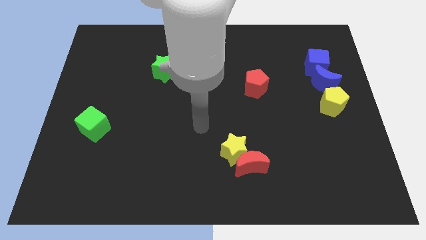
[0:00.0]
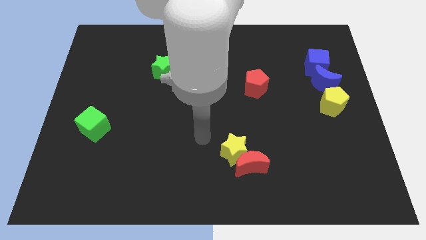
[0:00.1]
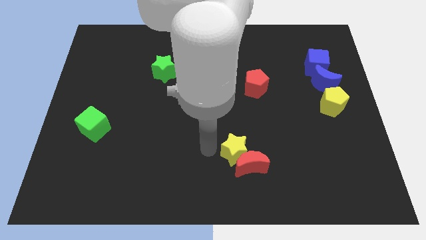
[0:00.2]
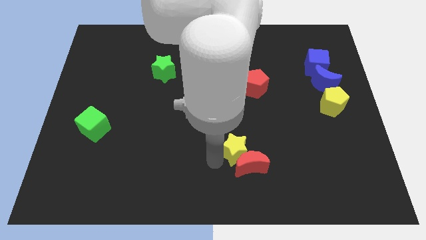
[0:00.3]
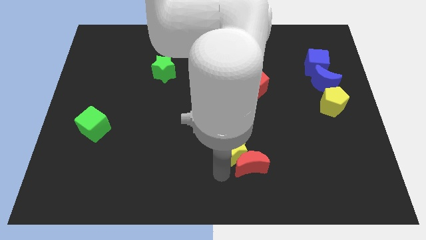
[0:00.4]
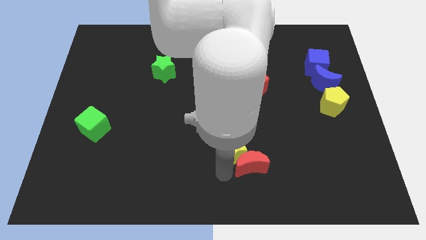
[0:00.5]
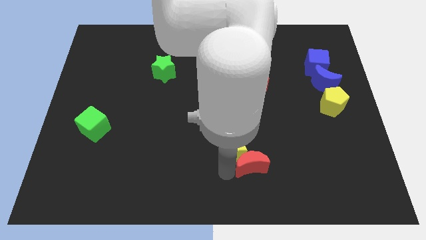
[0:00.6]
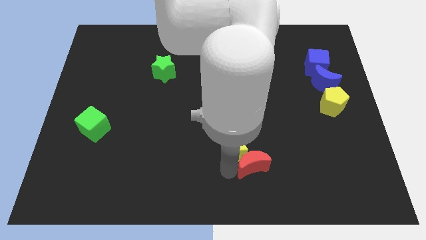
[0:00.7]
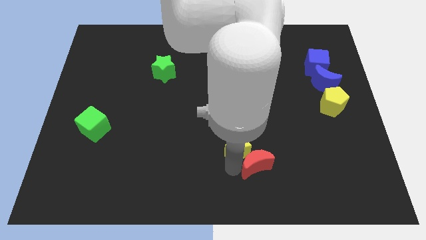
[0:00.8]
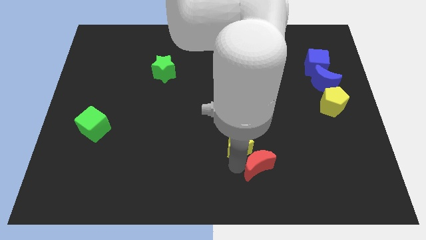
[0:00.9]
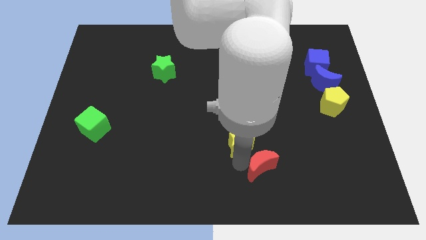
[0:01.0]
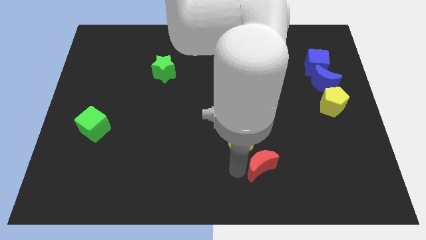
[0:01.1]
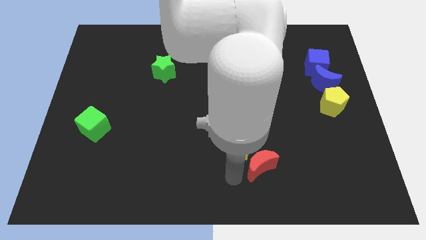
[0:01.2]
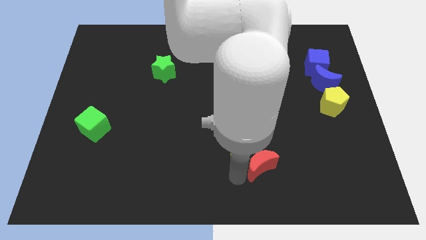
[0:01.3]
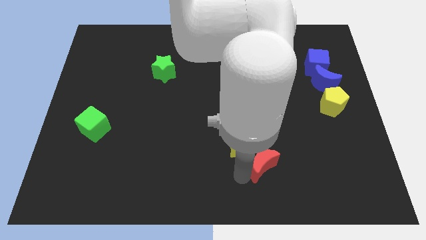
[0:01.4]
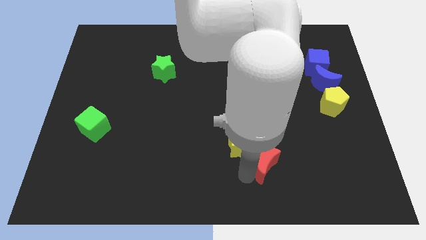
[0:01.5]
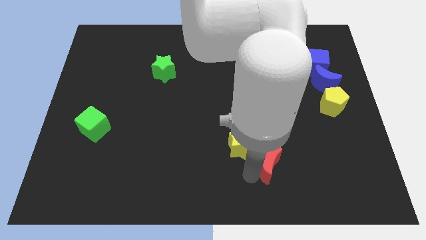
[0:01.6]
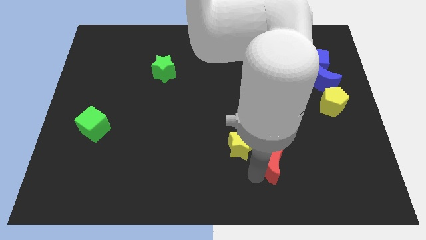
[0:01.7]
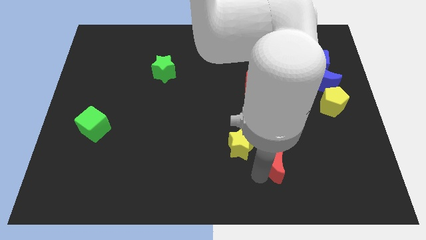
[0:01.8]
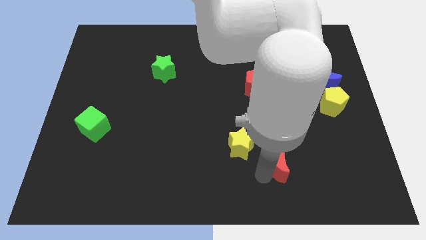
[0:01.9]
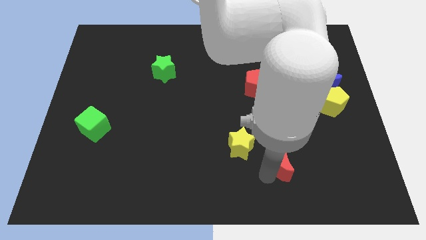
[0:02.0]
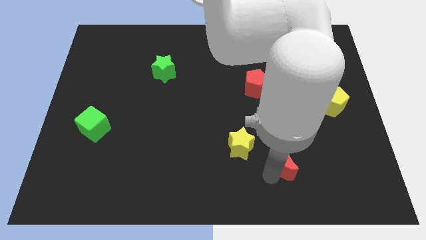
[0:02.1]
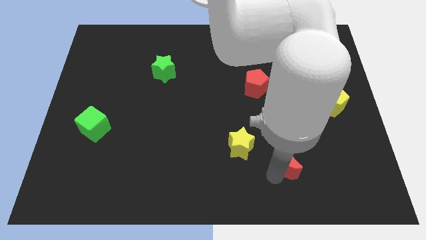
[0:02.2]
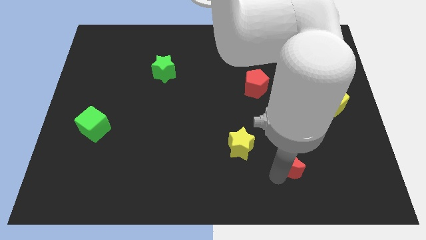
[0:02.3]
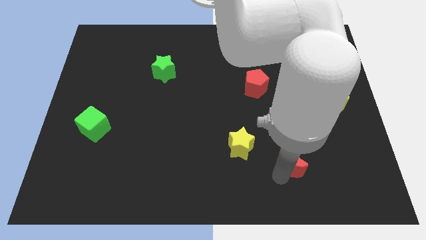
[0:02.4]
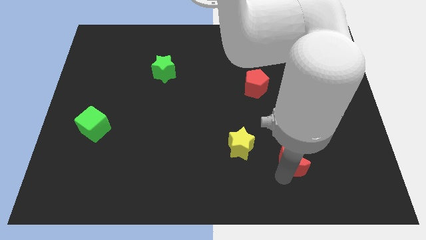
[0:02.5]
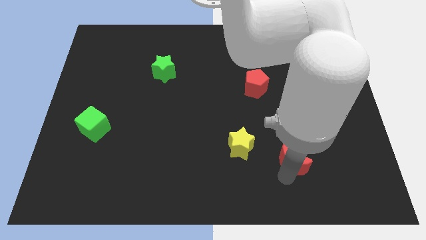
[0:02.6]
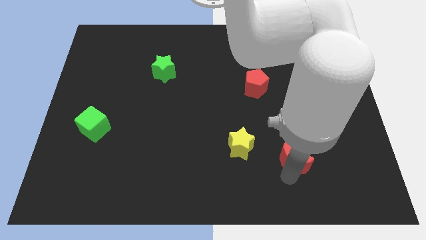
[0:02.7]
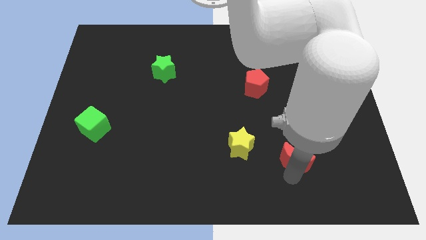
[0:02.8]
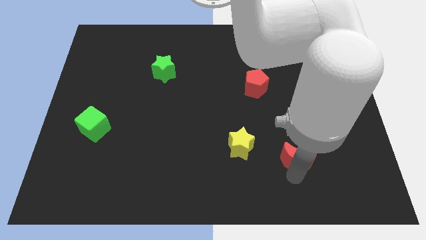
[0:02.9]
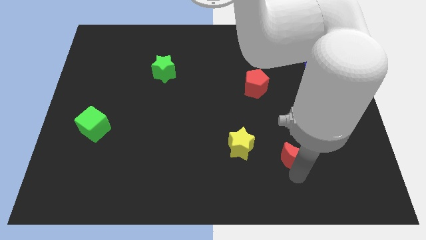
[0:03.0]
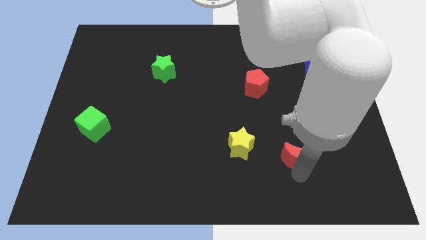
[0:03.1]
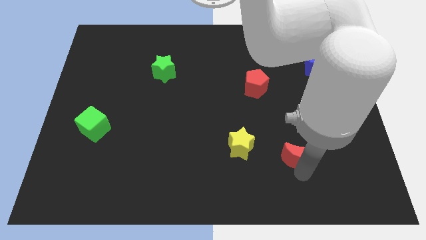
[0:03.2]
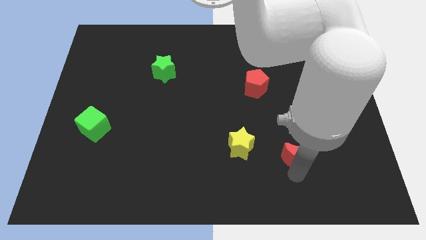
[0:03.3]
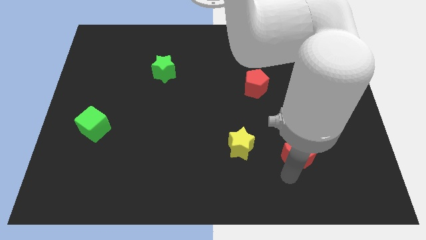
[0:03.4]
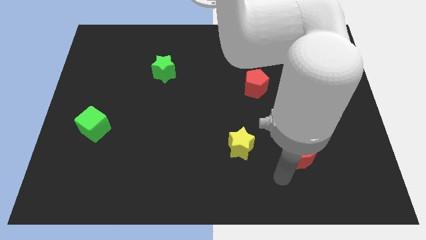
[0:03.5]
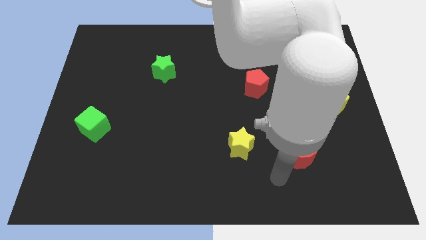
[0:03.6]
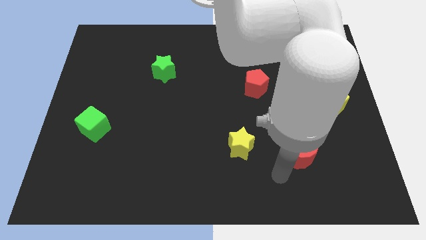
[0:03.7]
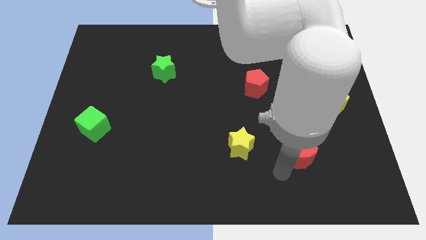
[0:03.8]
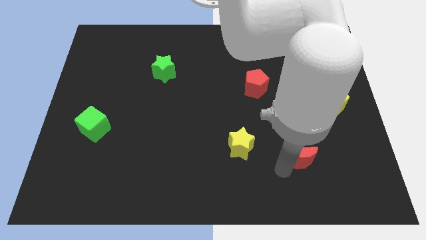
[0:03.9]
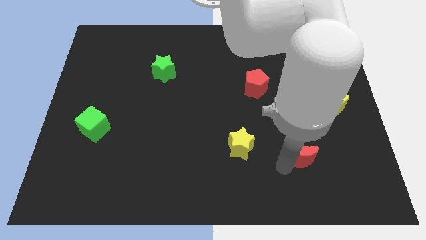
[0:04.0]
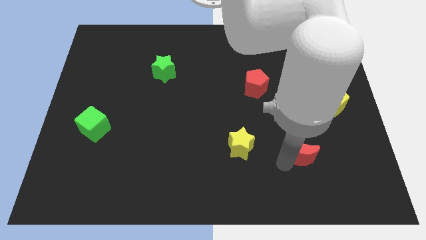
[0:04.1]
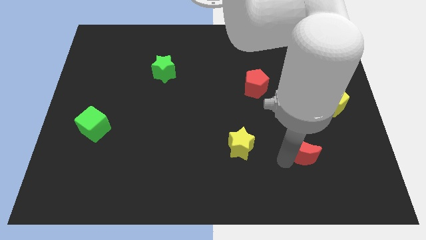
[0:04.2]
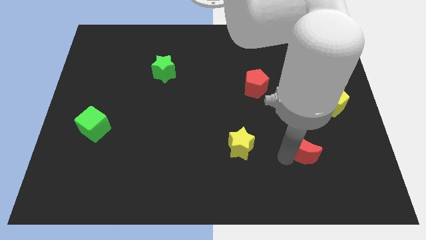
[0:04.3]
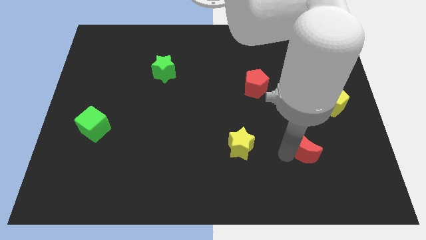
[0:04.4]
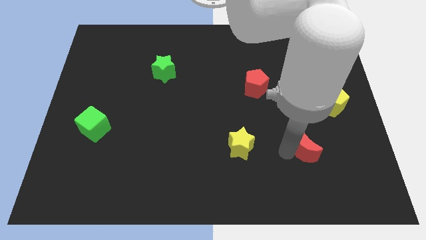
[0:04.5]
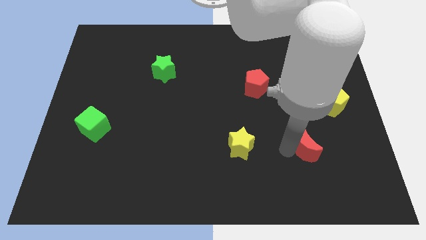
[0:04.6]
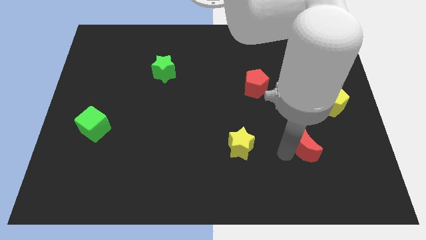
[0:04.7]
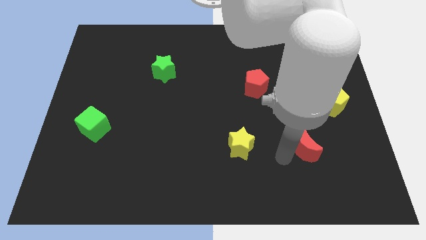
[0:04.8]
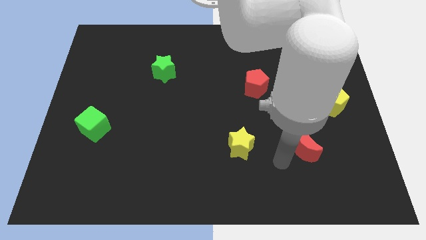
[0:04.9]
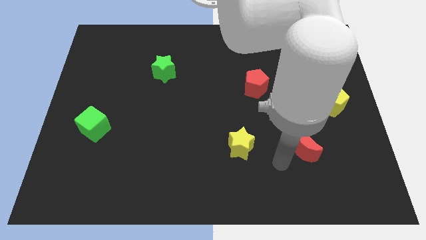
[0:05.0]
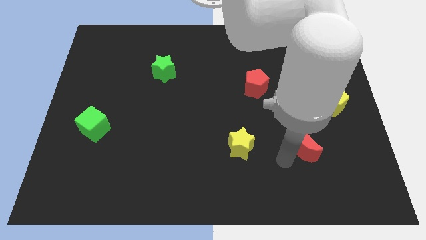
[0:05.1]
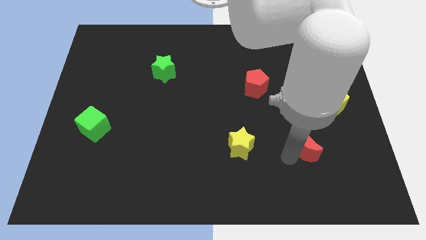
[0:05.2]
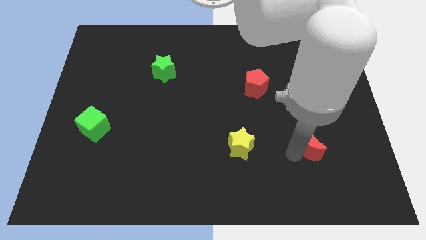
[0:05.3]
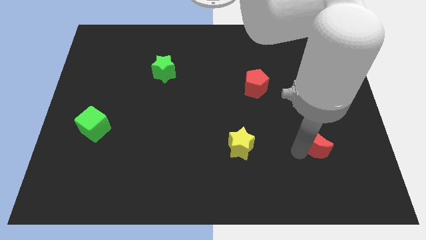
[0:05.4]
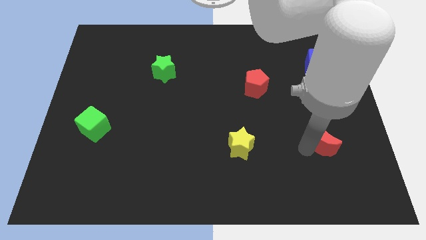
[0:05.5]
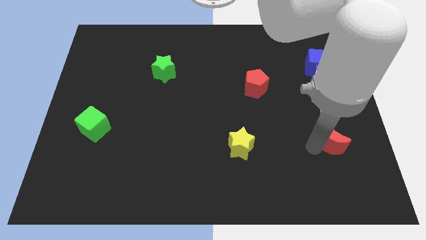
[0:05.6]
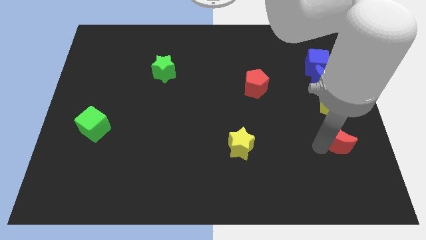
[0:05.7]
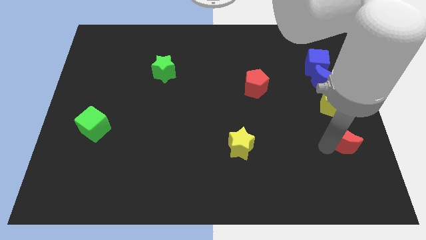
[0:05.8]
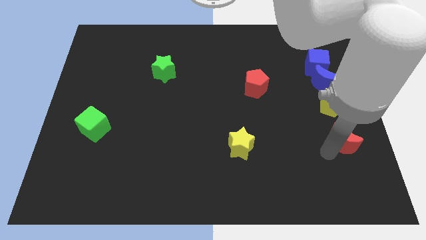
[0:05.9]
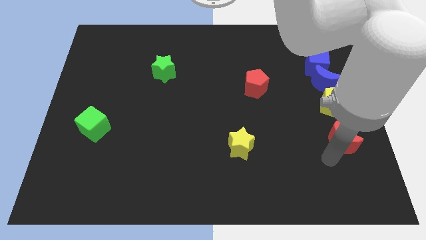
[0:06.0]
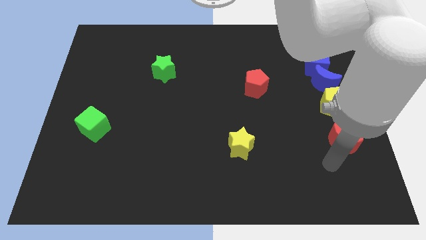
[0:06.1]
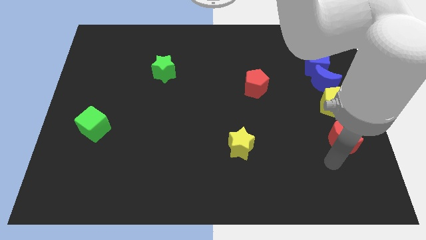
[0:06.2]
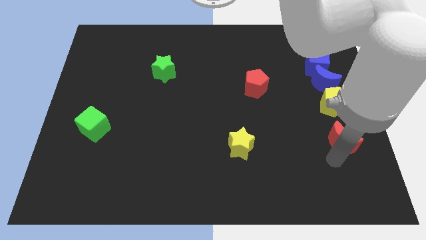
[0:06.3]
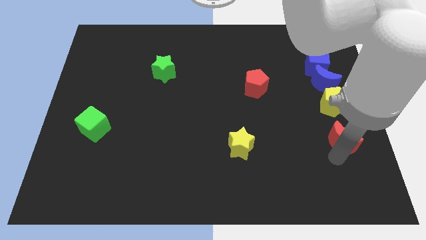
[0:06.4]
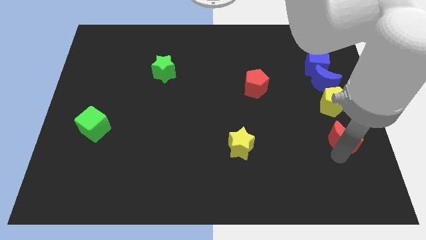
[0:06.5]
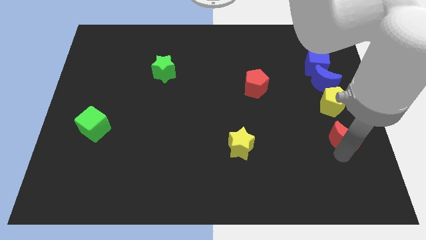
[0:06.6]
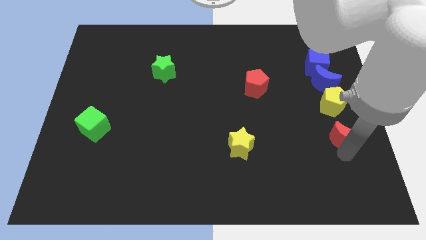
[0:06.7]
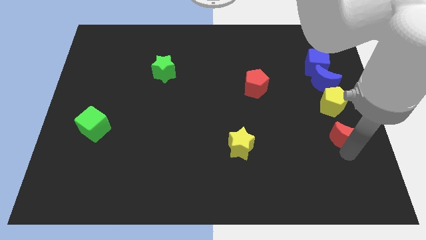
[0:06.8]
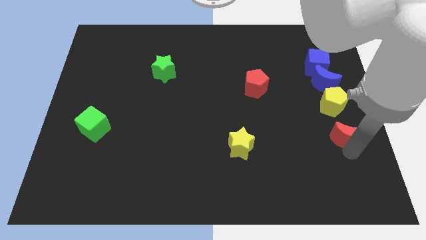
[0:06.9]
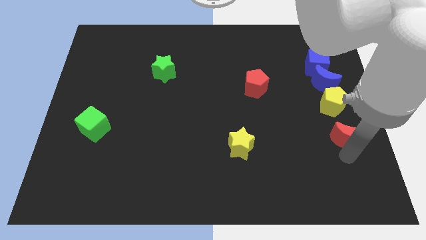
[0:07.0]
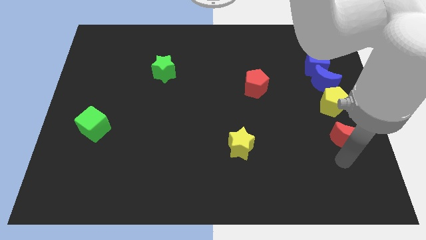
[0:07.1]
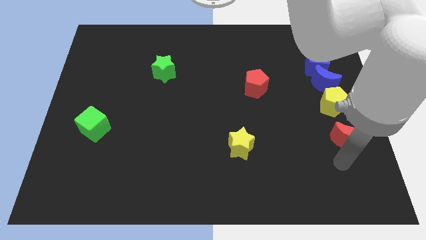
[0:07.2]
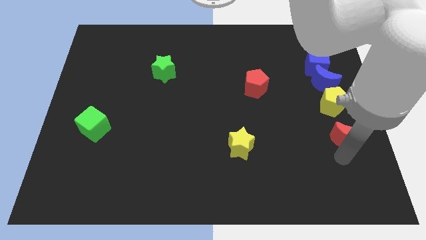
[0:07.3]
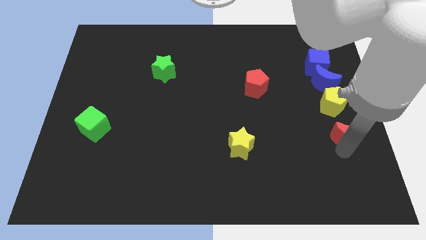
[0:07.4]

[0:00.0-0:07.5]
put the red moon to the right side of the board
